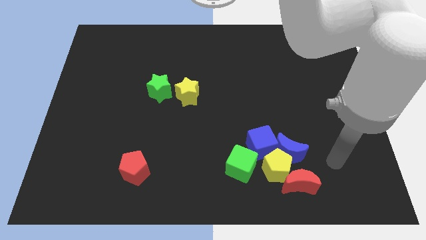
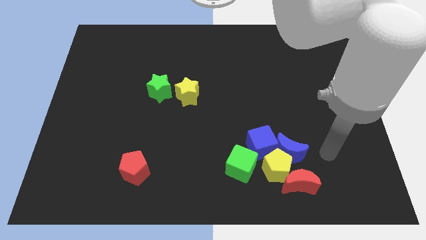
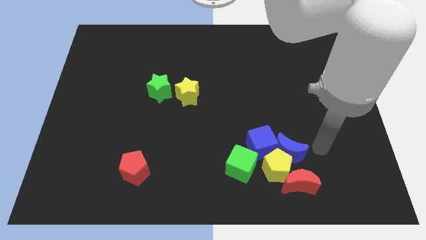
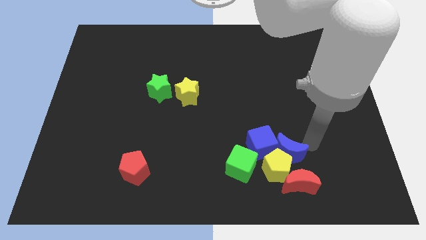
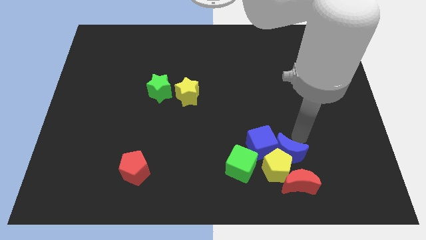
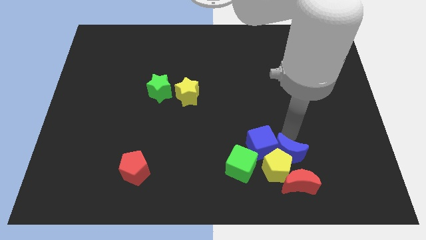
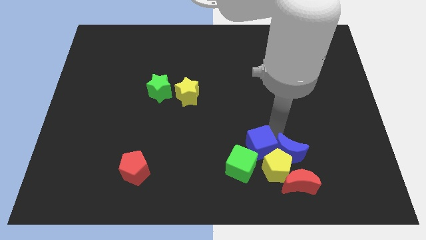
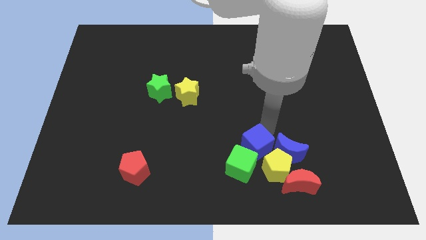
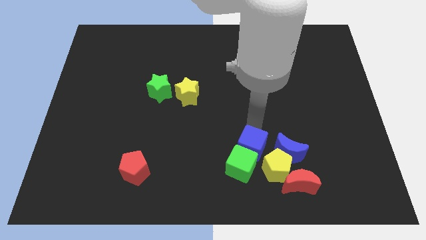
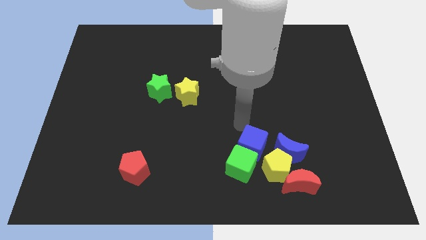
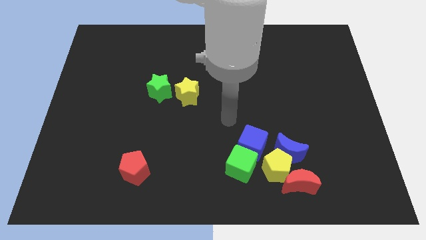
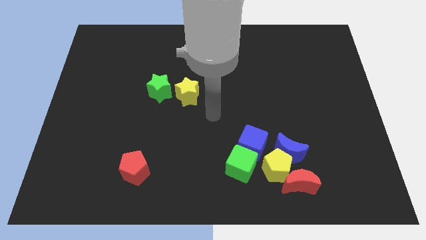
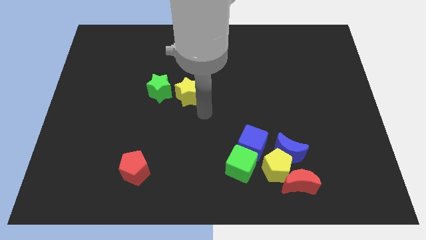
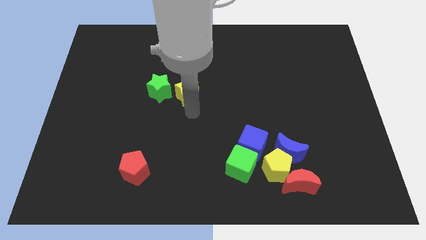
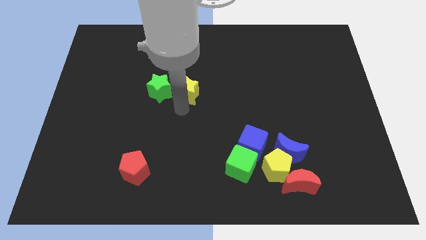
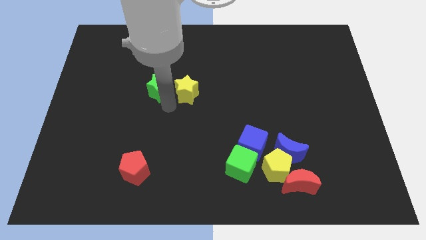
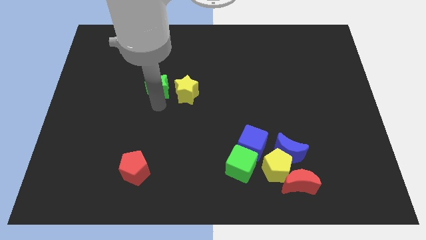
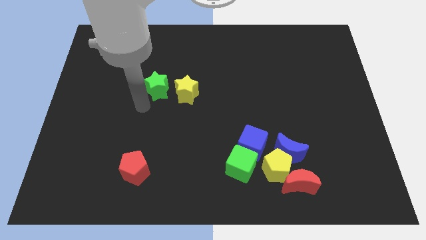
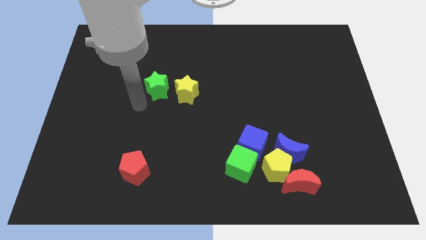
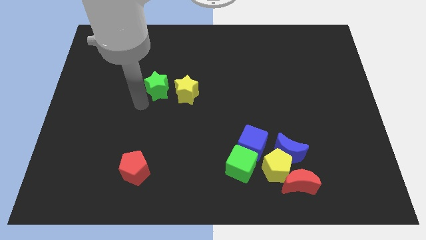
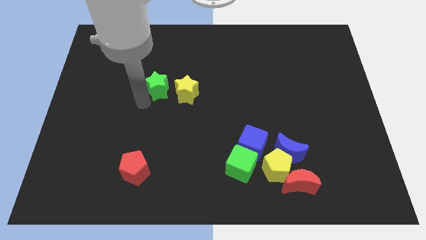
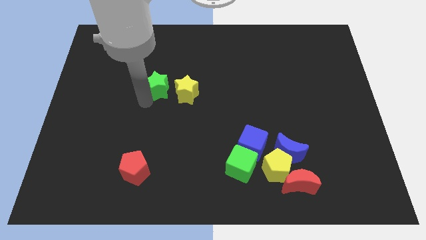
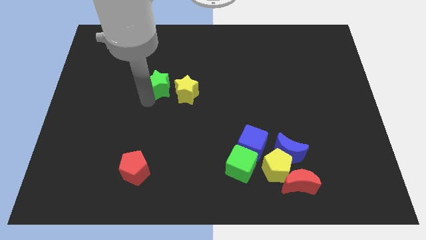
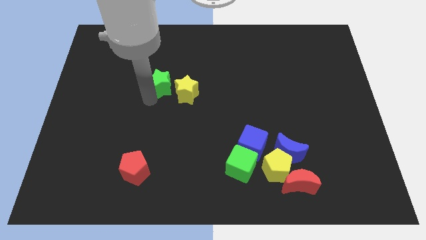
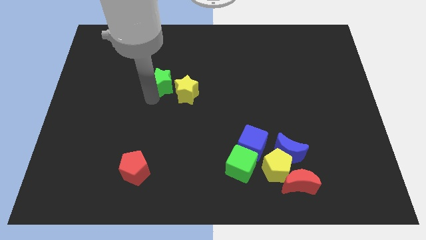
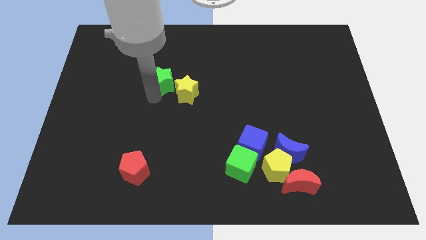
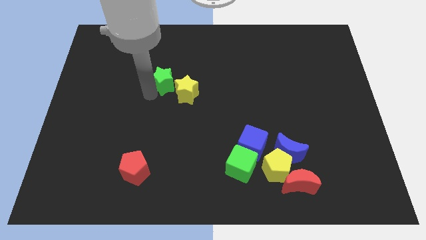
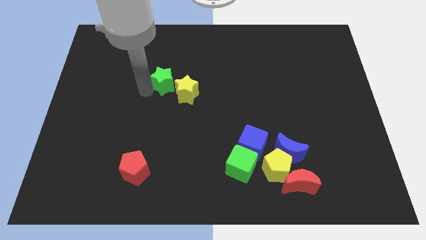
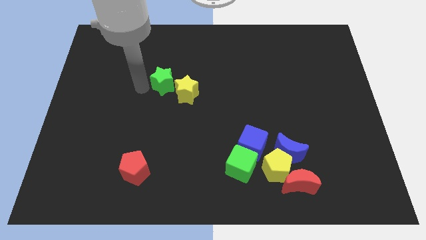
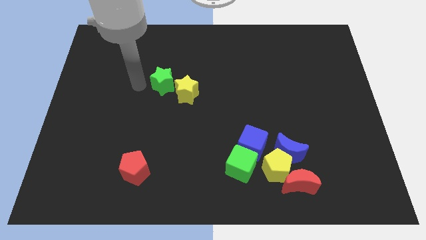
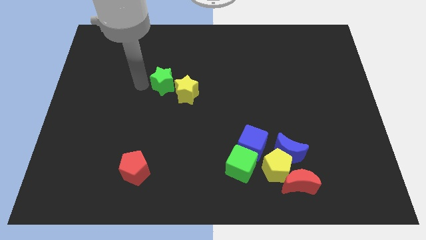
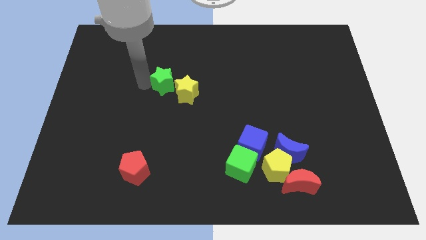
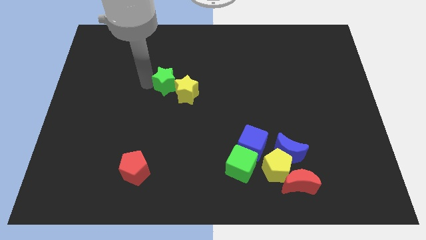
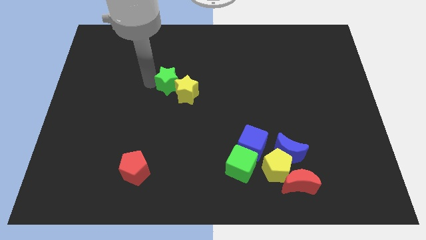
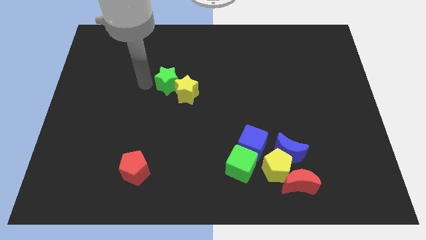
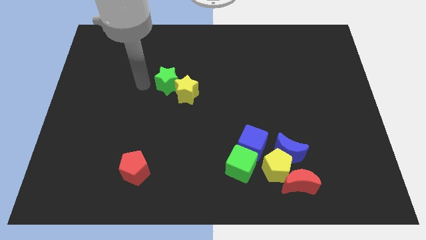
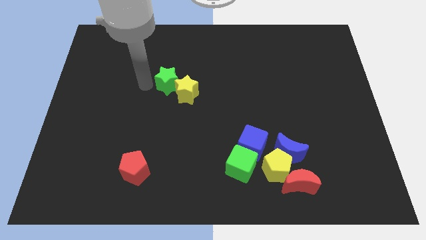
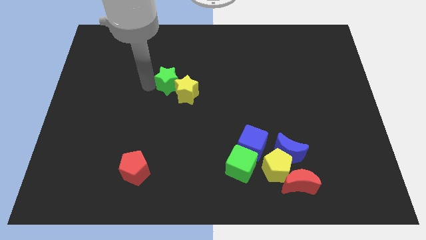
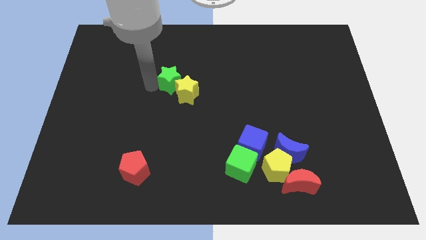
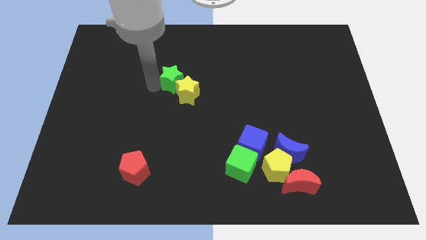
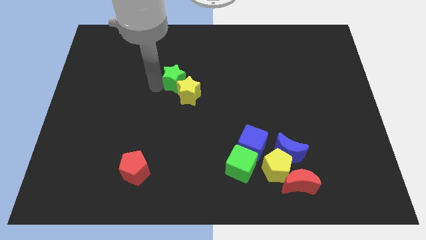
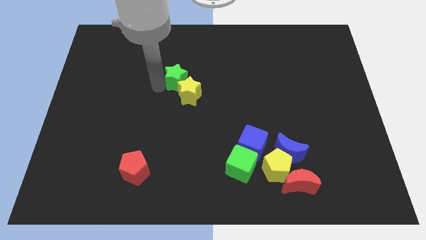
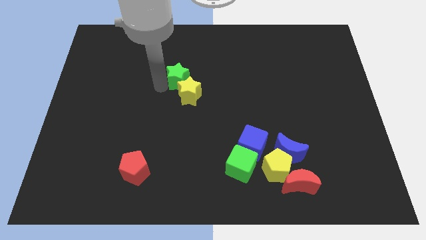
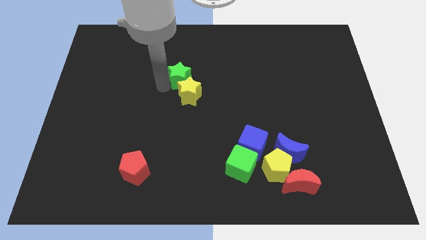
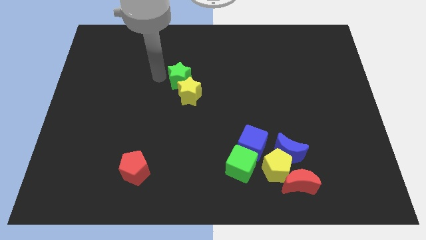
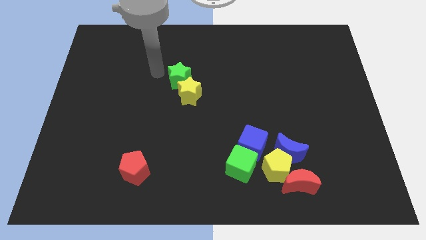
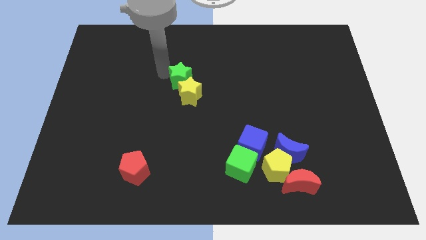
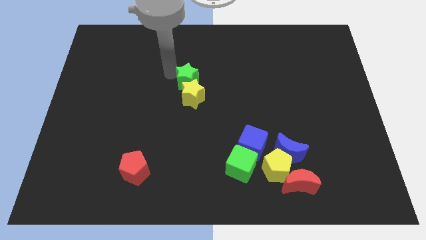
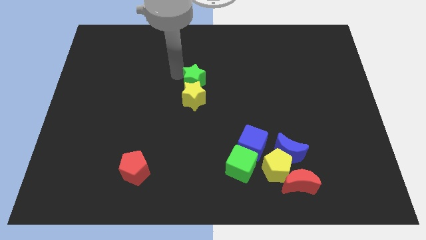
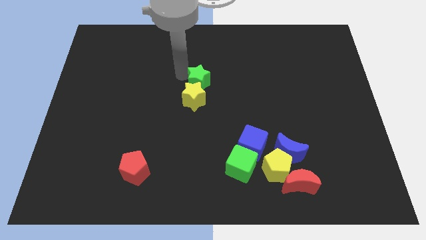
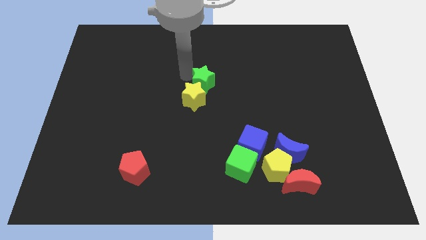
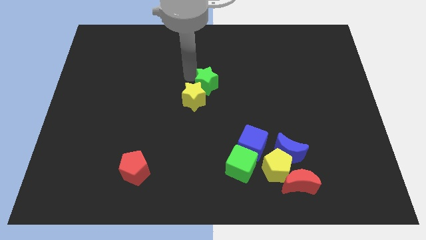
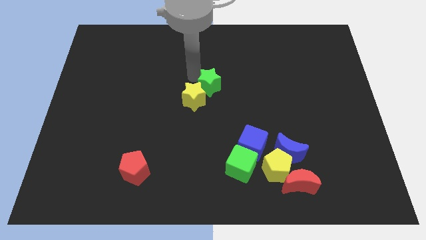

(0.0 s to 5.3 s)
put the green star to the right of the yellow star

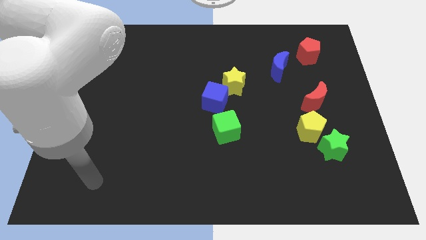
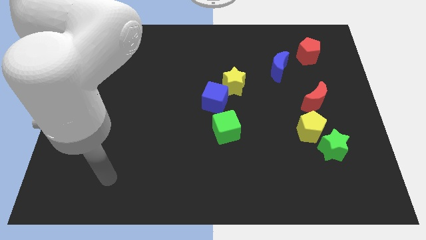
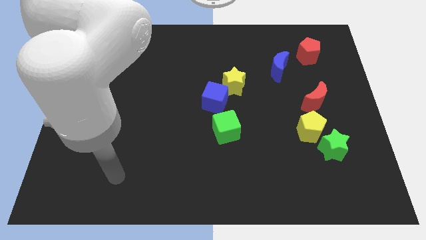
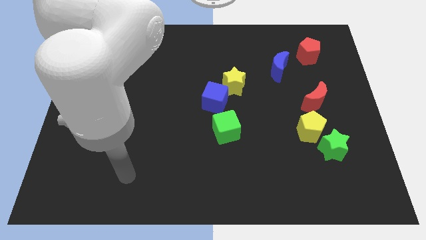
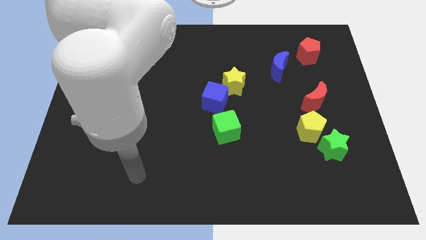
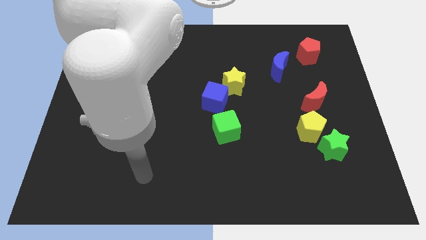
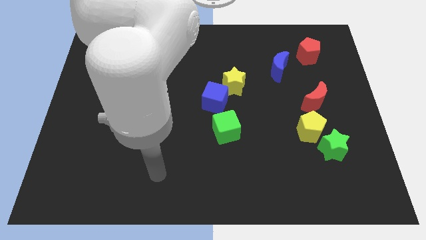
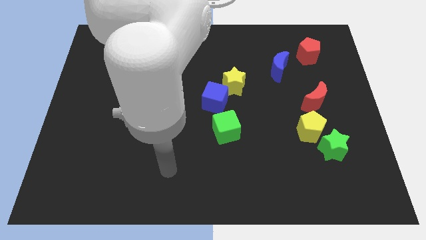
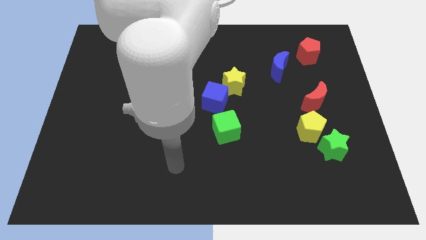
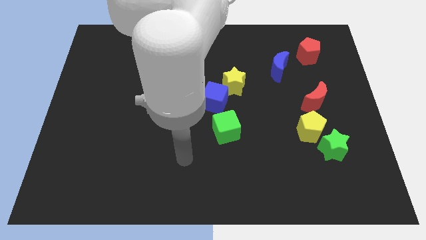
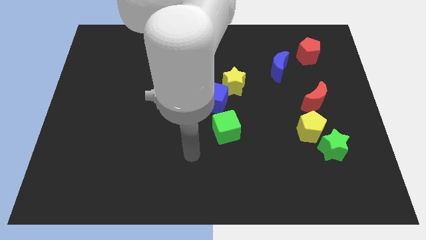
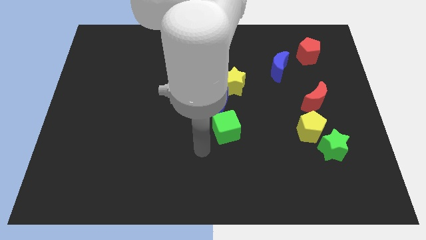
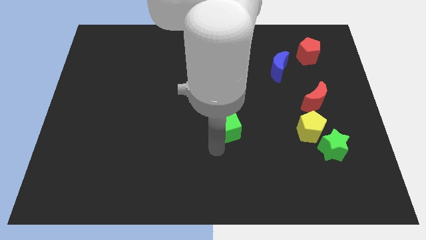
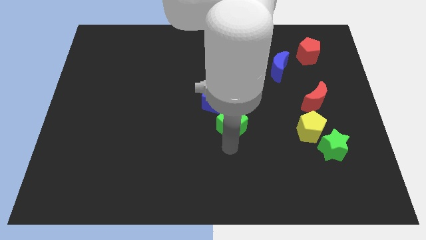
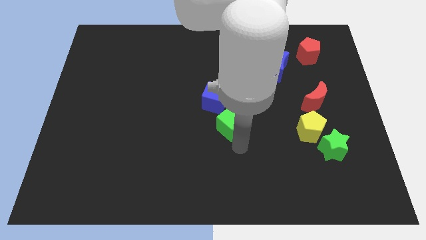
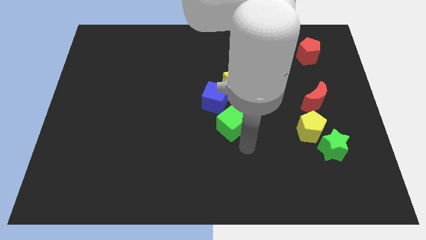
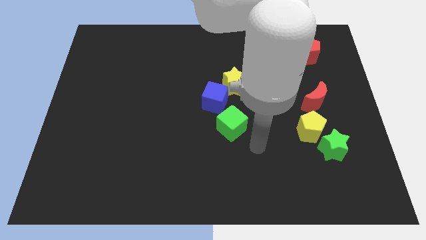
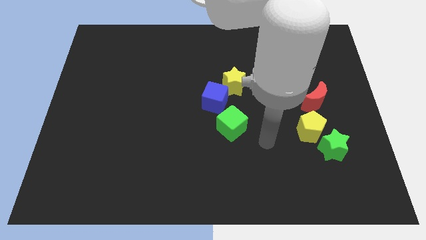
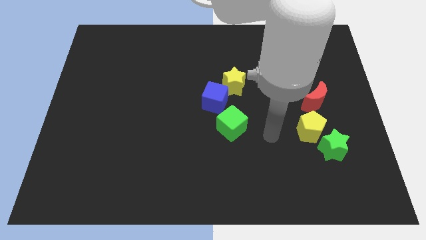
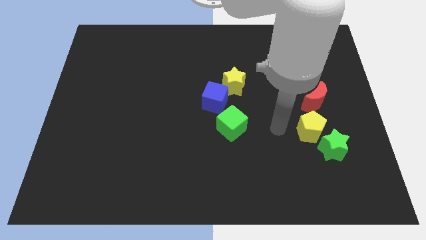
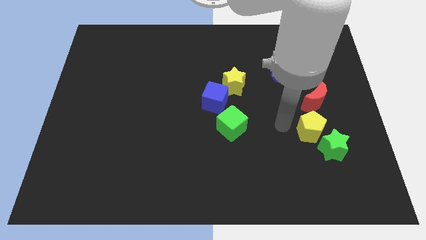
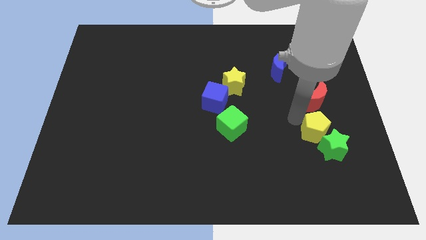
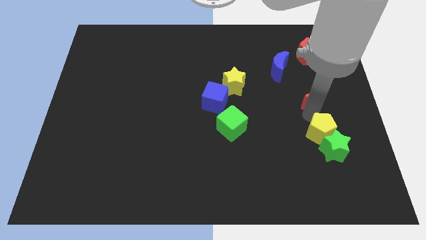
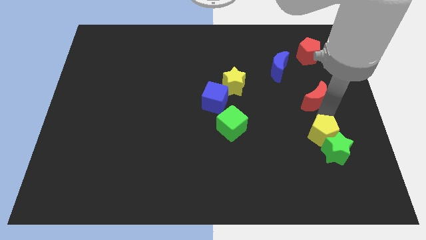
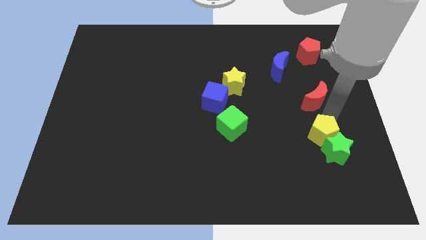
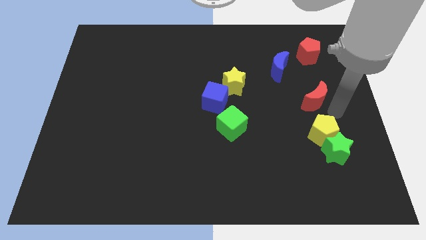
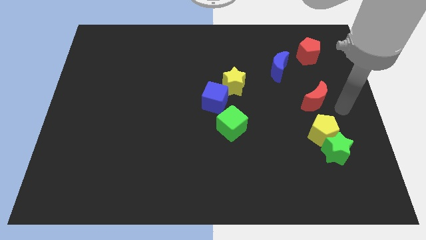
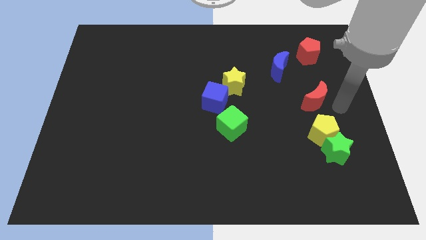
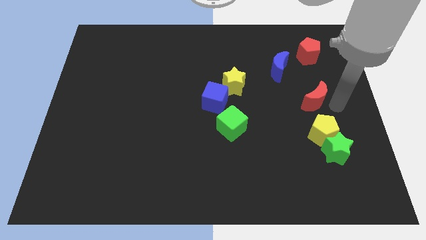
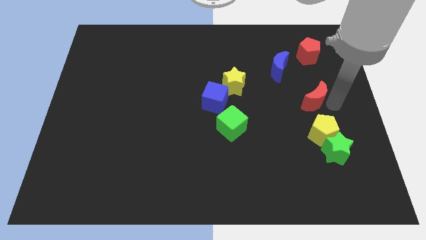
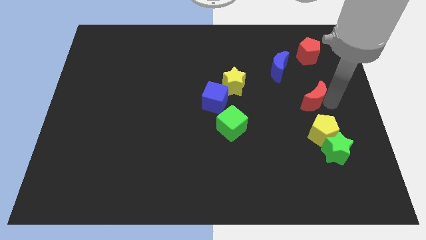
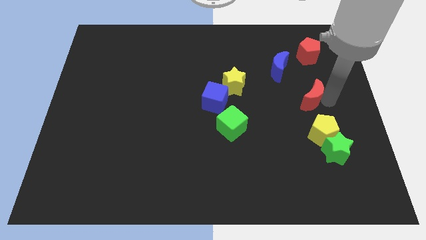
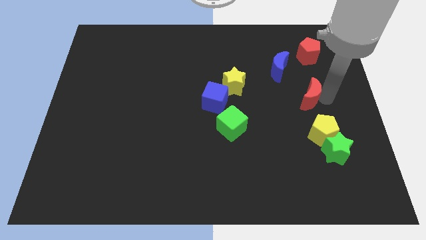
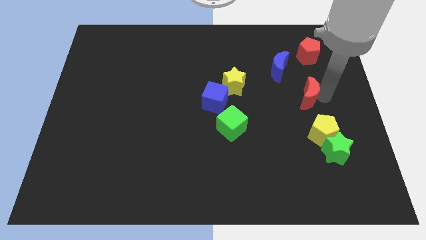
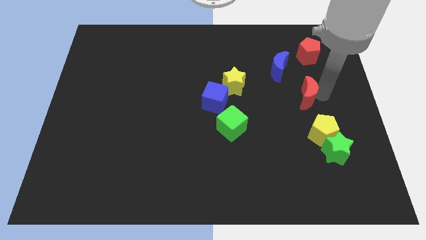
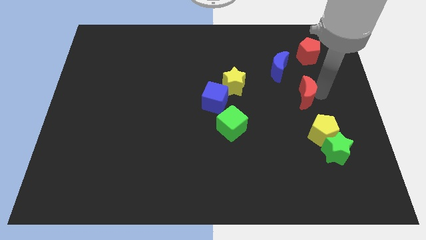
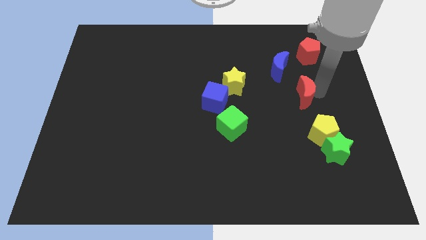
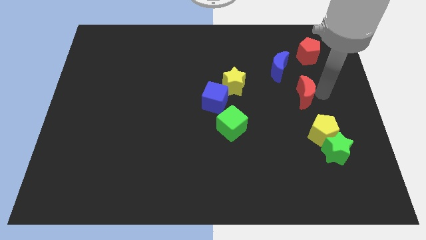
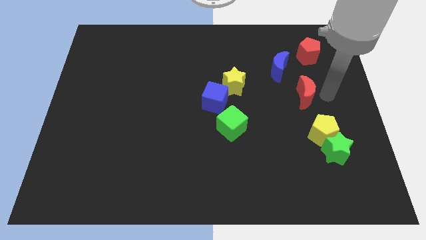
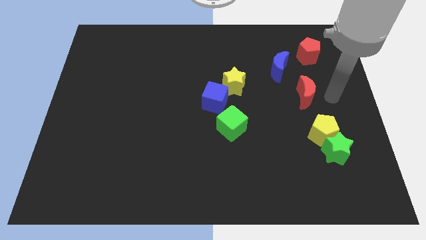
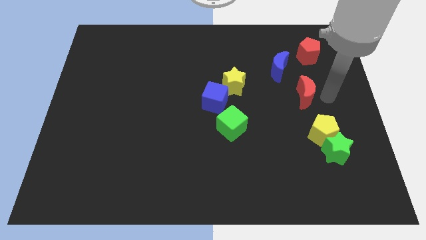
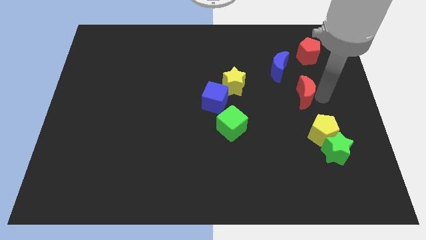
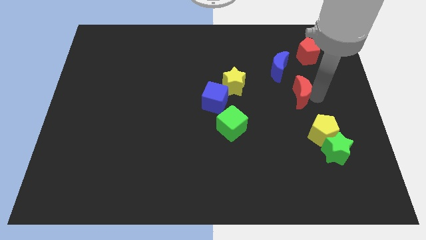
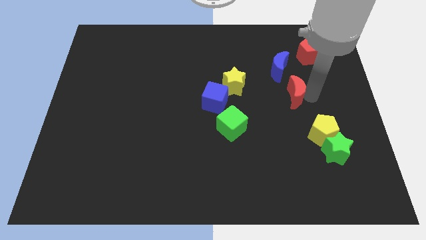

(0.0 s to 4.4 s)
move the red moon to the right of the yellow star
